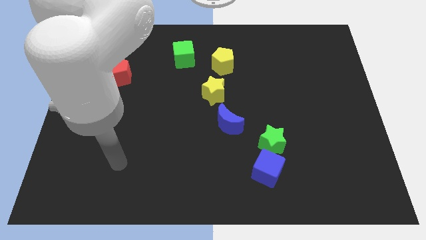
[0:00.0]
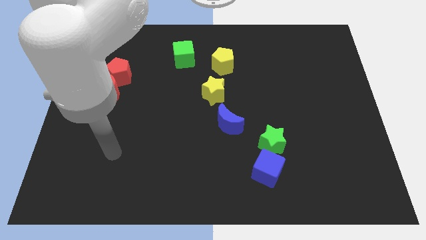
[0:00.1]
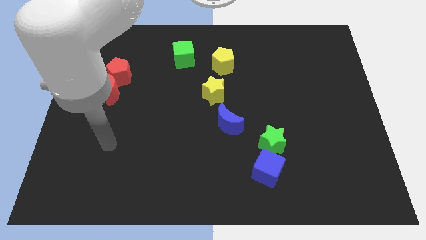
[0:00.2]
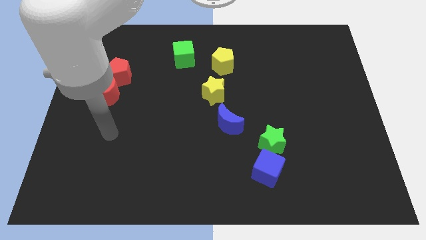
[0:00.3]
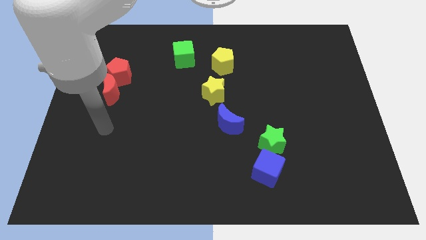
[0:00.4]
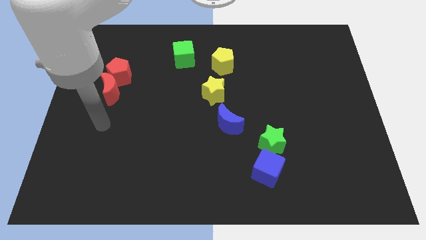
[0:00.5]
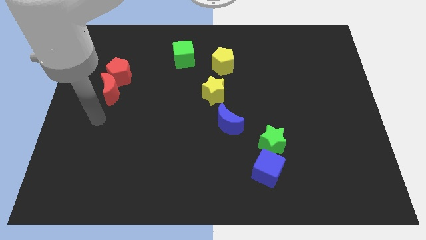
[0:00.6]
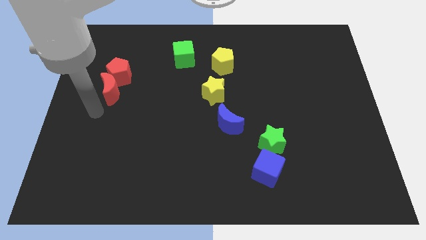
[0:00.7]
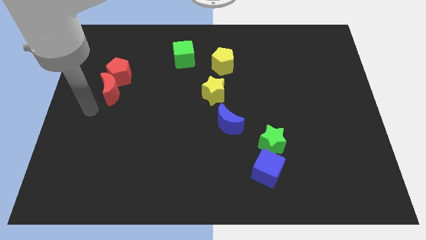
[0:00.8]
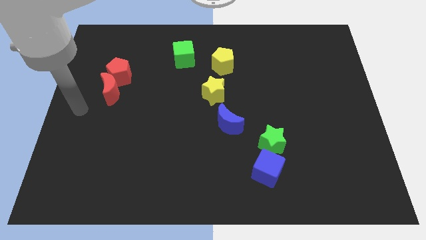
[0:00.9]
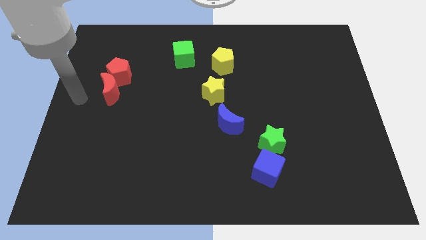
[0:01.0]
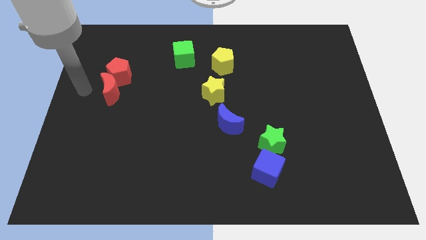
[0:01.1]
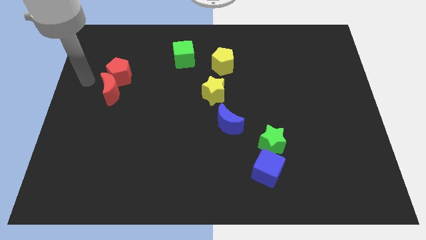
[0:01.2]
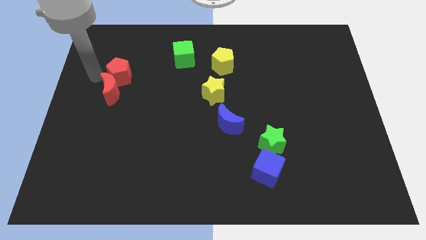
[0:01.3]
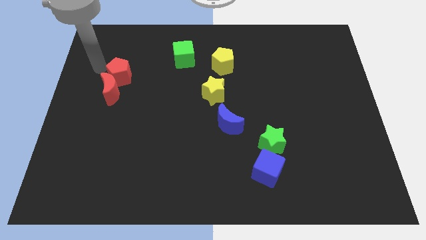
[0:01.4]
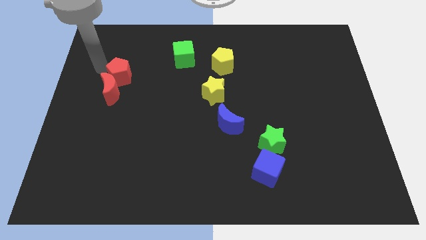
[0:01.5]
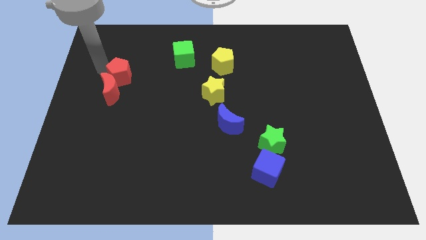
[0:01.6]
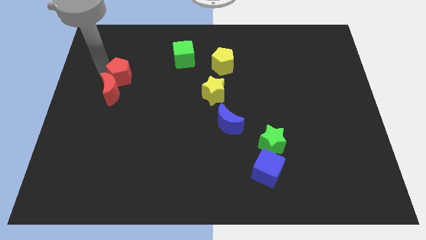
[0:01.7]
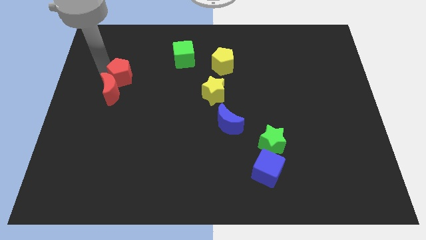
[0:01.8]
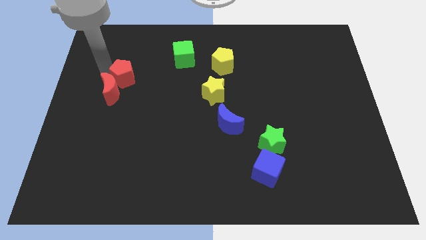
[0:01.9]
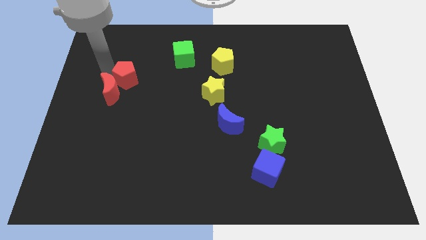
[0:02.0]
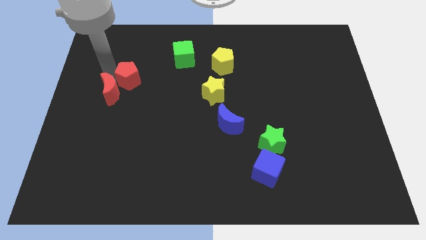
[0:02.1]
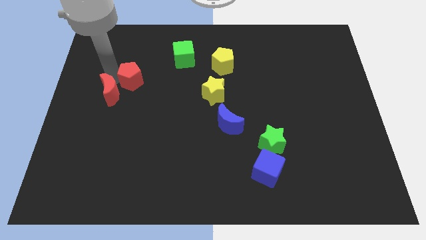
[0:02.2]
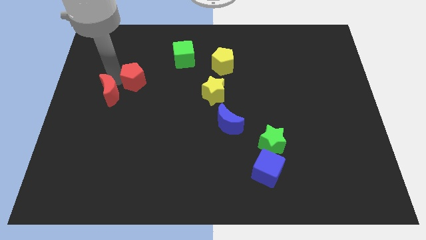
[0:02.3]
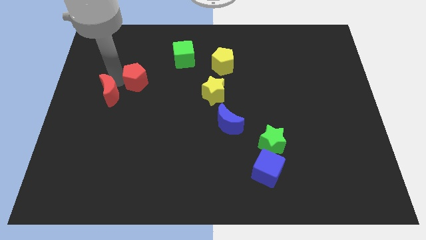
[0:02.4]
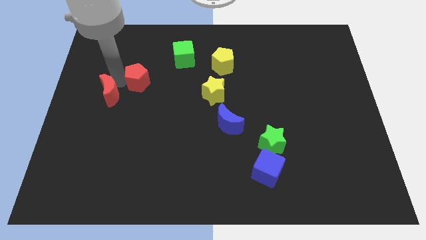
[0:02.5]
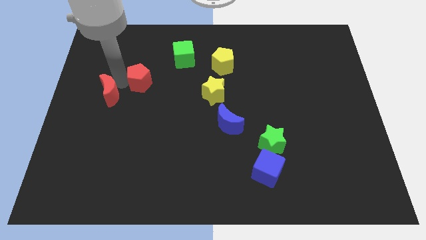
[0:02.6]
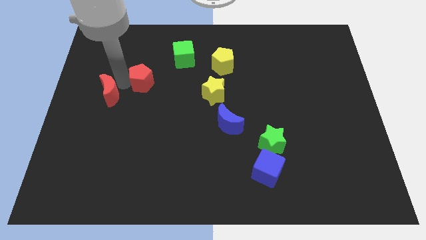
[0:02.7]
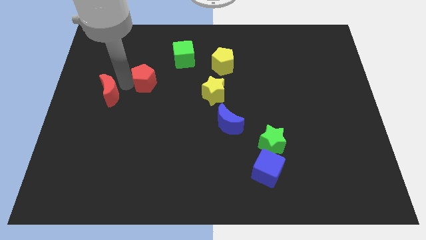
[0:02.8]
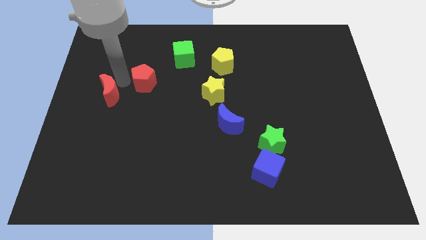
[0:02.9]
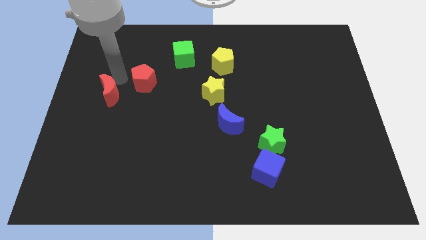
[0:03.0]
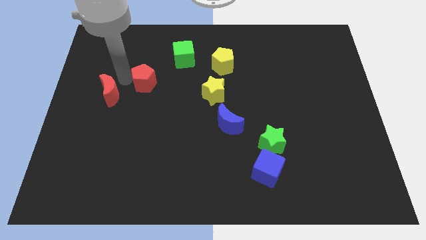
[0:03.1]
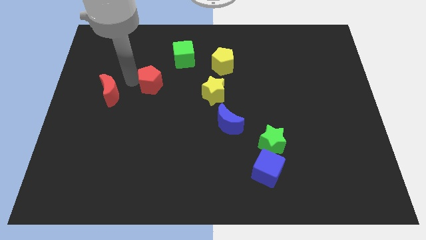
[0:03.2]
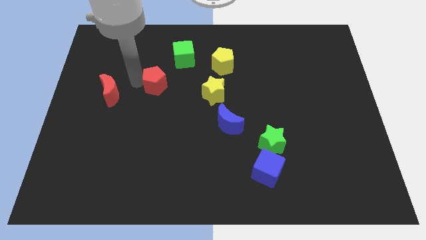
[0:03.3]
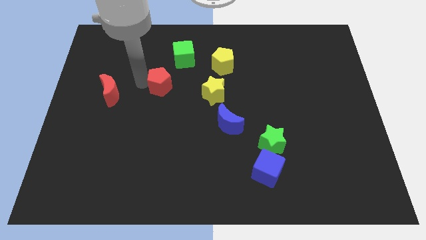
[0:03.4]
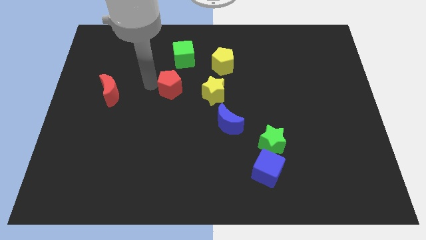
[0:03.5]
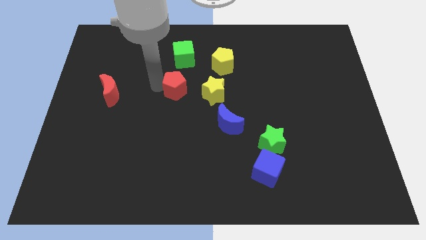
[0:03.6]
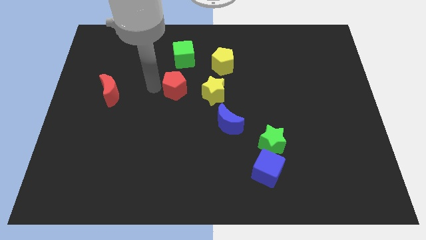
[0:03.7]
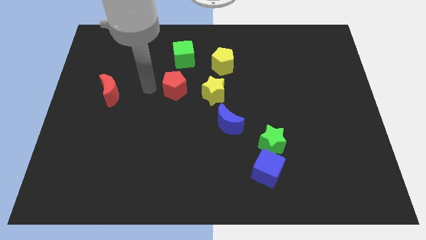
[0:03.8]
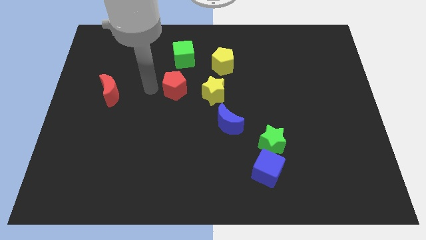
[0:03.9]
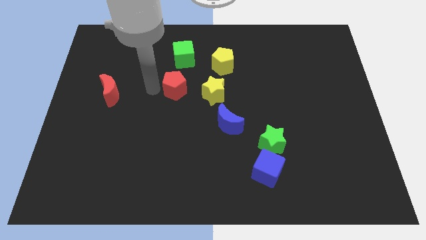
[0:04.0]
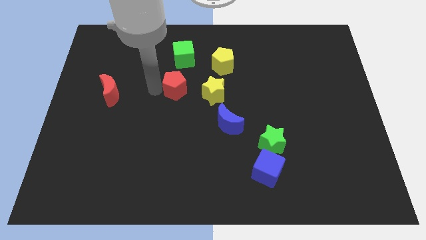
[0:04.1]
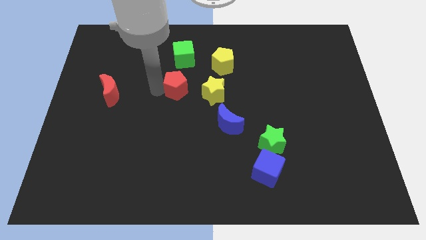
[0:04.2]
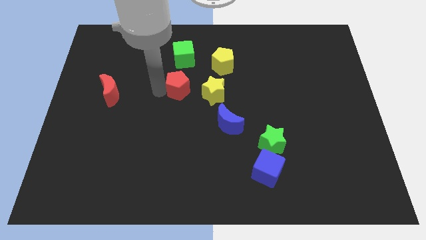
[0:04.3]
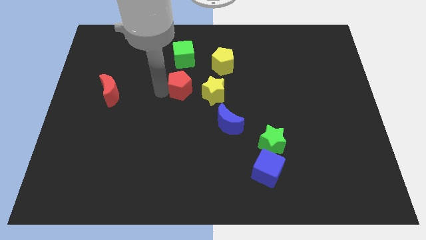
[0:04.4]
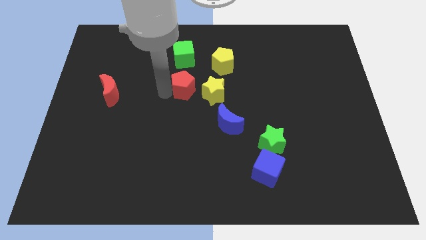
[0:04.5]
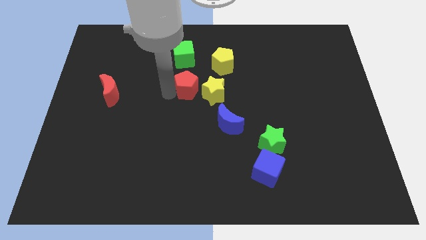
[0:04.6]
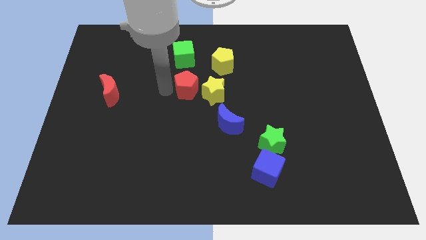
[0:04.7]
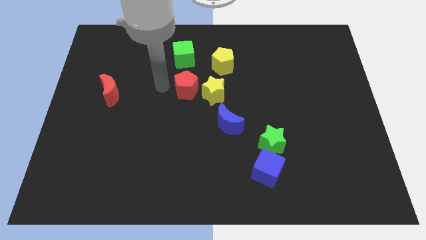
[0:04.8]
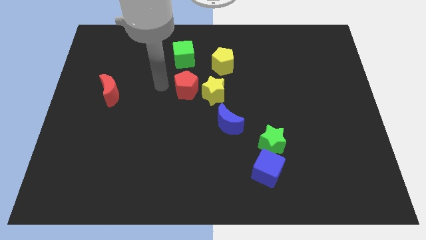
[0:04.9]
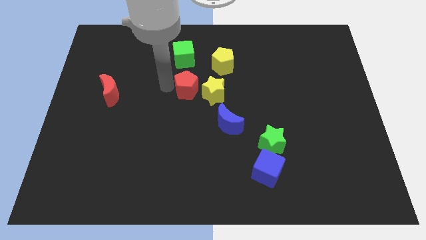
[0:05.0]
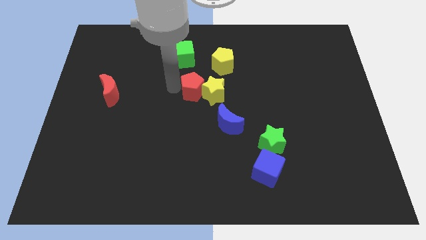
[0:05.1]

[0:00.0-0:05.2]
move the red pentagon next to the yellow star

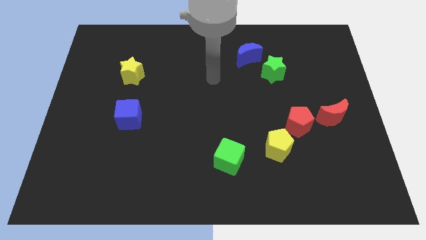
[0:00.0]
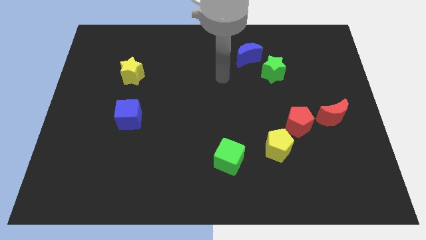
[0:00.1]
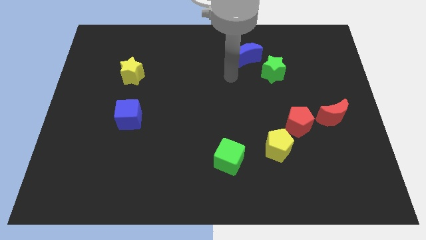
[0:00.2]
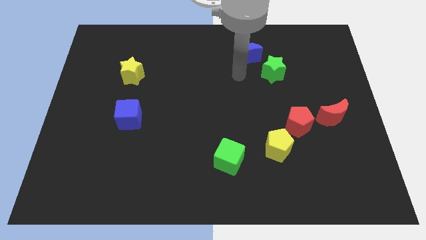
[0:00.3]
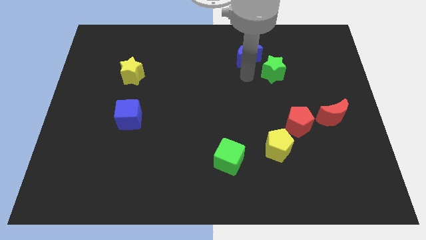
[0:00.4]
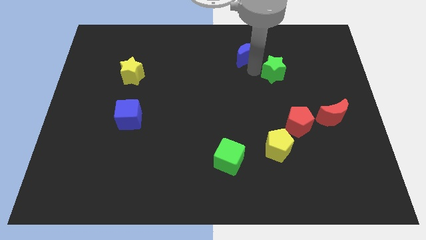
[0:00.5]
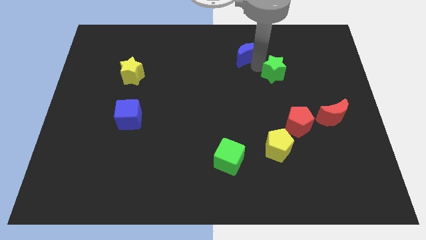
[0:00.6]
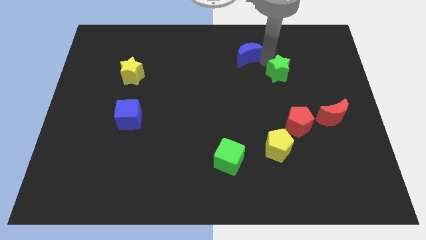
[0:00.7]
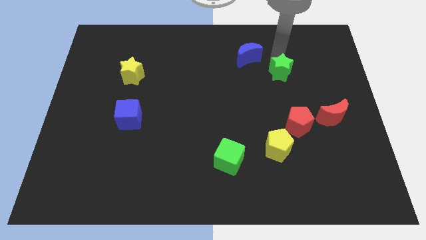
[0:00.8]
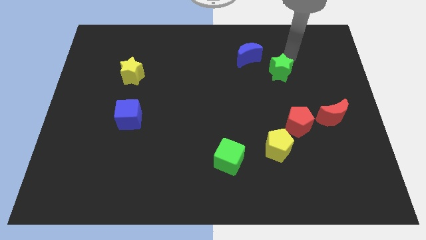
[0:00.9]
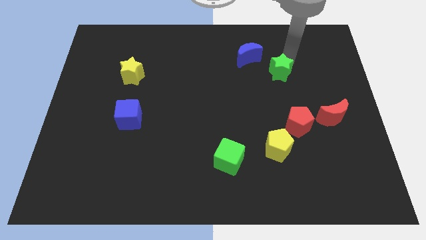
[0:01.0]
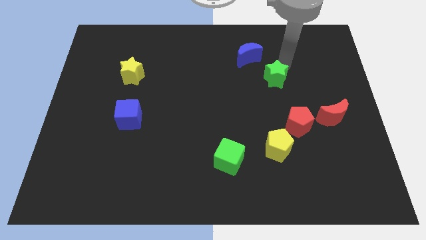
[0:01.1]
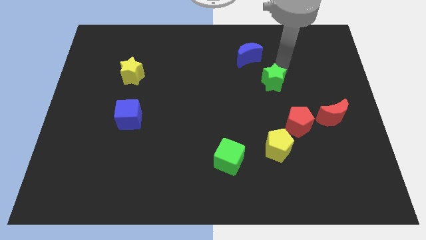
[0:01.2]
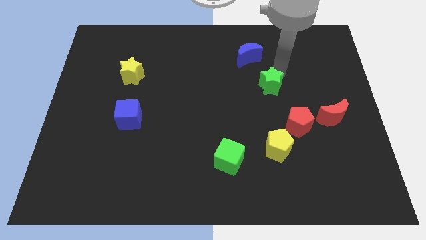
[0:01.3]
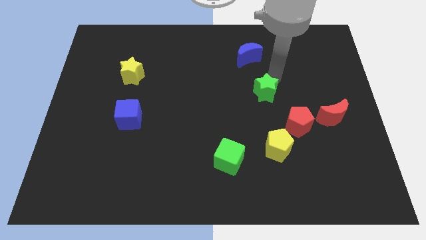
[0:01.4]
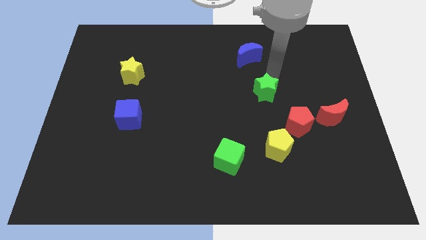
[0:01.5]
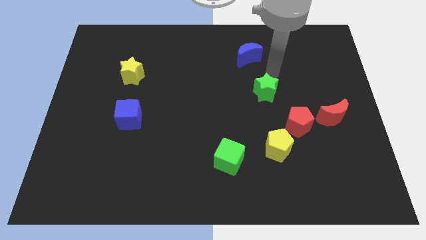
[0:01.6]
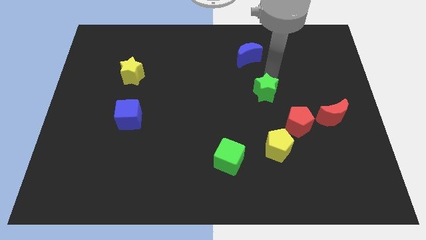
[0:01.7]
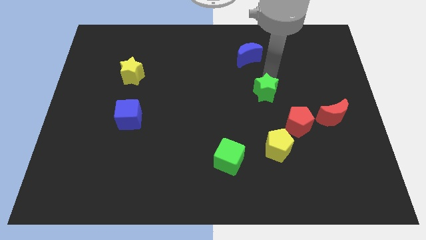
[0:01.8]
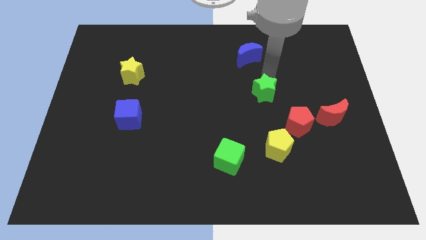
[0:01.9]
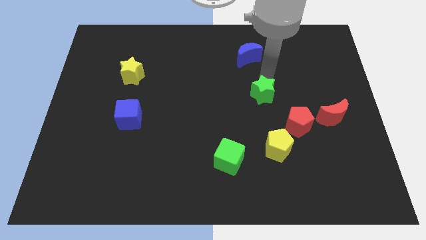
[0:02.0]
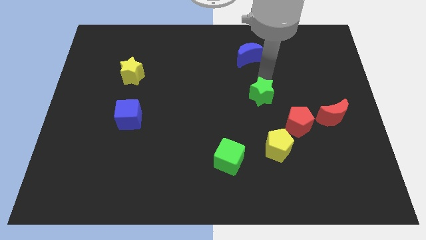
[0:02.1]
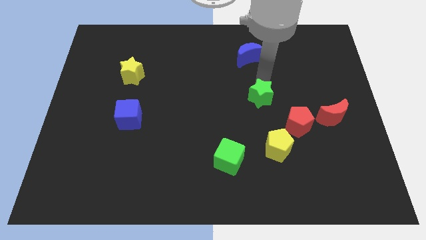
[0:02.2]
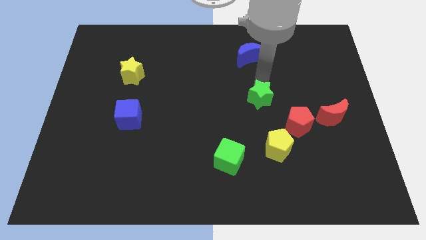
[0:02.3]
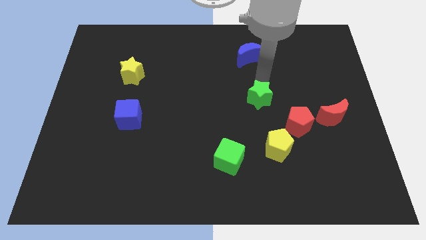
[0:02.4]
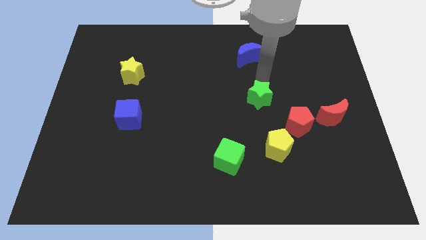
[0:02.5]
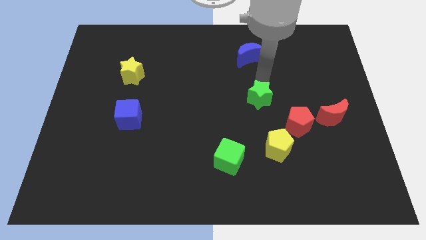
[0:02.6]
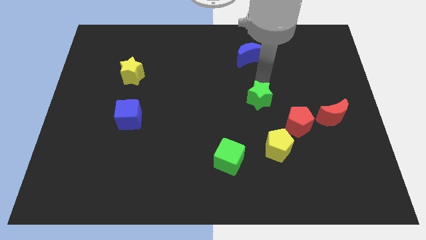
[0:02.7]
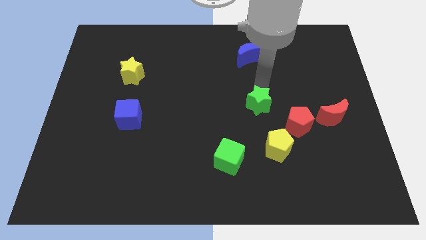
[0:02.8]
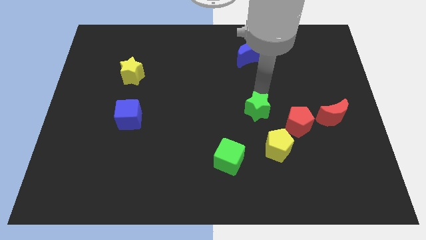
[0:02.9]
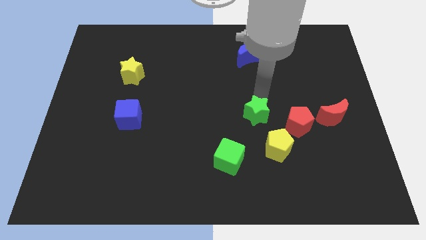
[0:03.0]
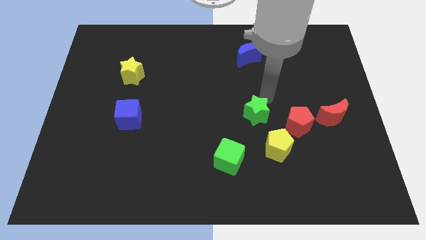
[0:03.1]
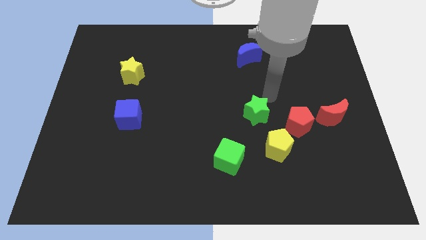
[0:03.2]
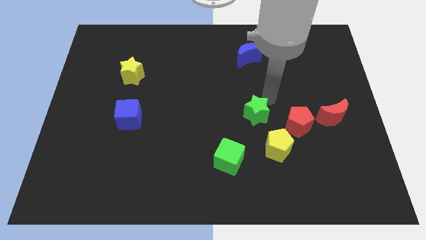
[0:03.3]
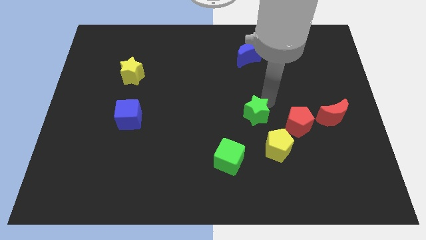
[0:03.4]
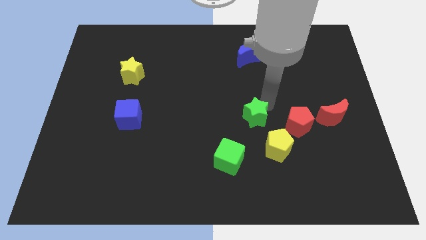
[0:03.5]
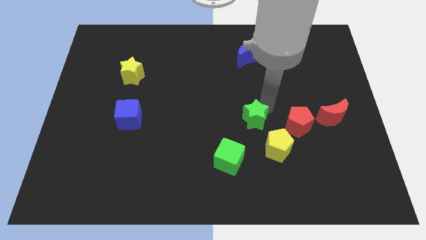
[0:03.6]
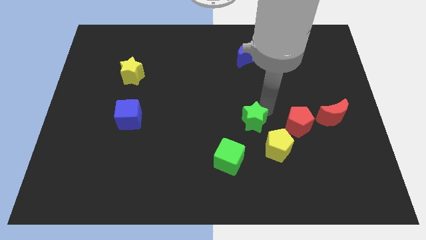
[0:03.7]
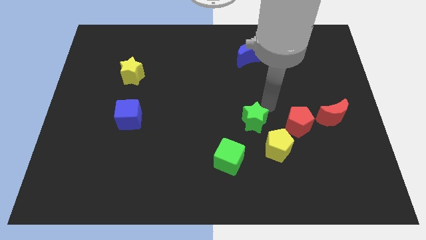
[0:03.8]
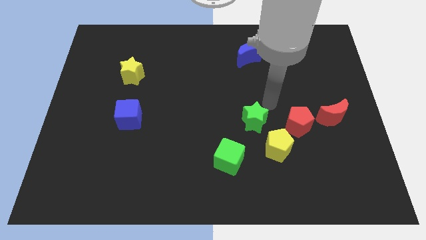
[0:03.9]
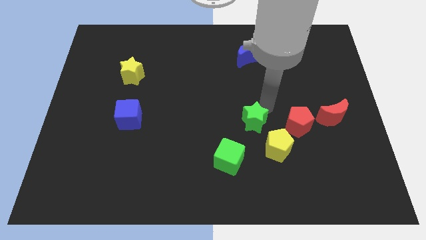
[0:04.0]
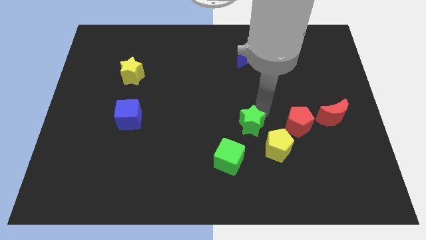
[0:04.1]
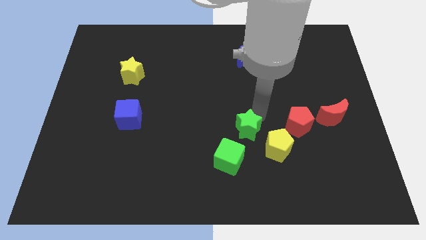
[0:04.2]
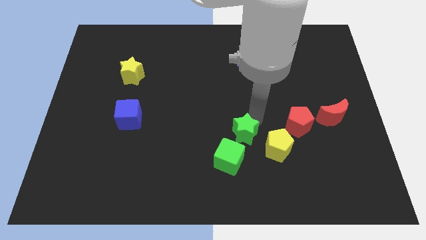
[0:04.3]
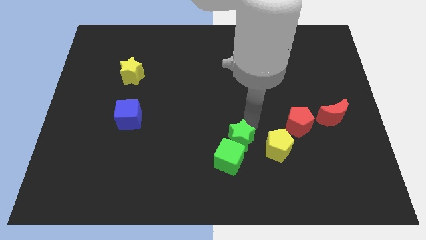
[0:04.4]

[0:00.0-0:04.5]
put the green star to the green cube
